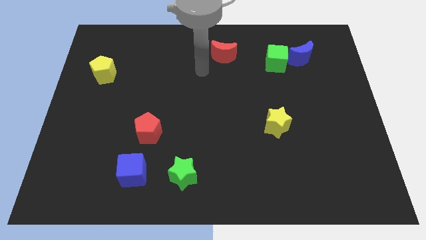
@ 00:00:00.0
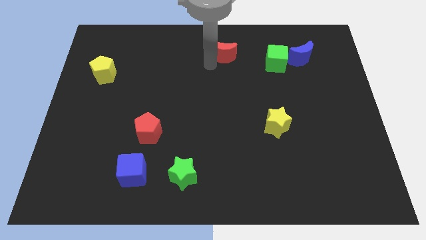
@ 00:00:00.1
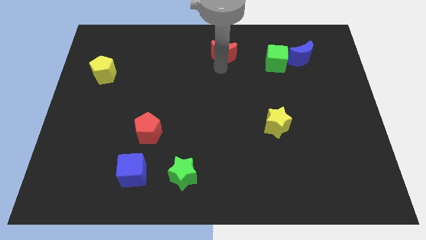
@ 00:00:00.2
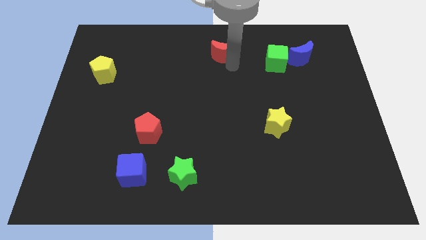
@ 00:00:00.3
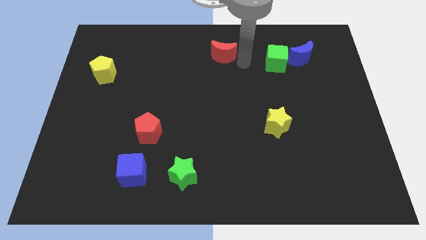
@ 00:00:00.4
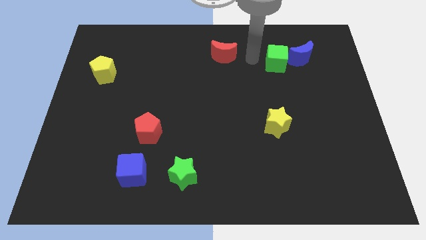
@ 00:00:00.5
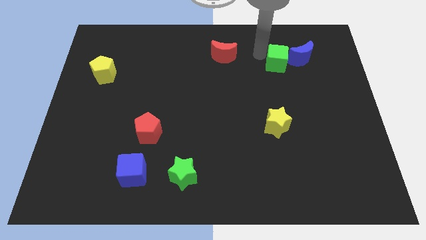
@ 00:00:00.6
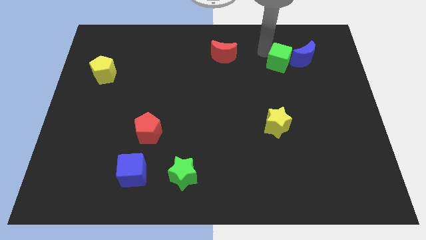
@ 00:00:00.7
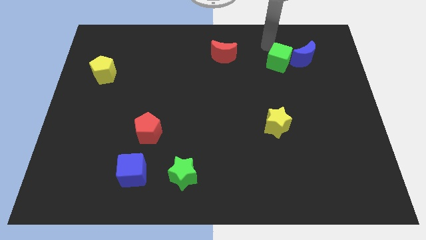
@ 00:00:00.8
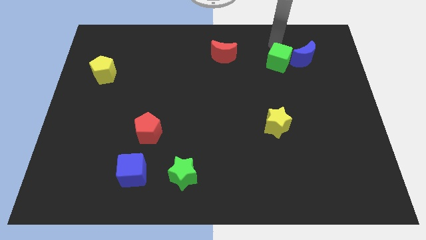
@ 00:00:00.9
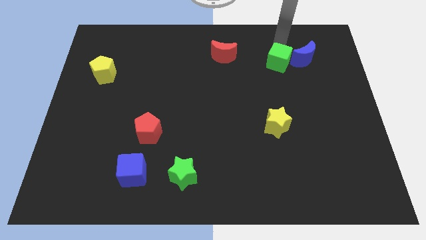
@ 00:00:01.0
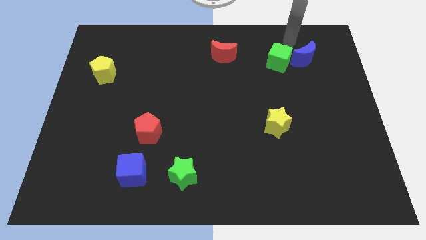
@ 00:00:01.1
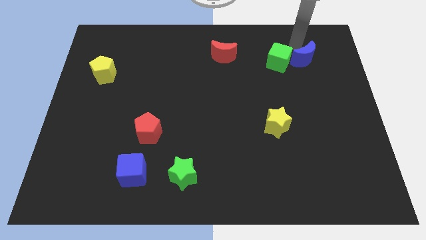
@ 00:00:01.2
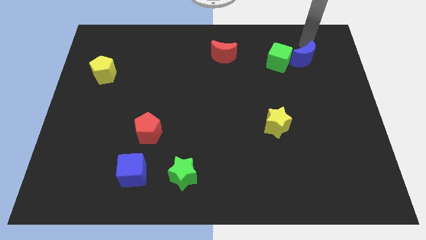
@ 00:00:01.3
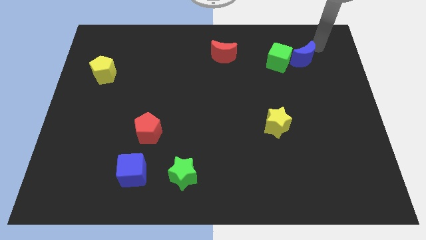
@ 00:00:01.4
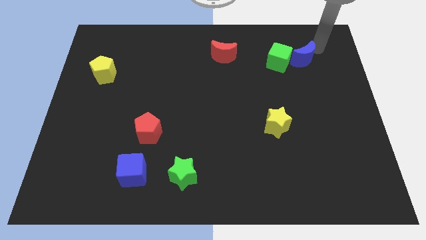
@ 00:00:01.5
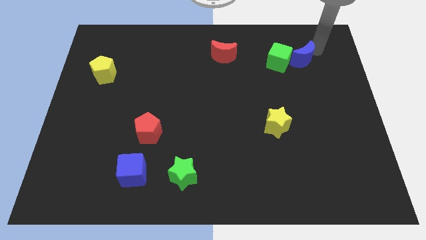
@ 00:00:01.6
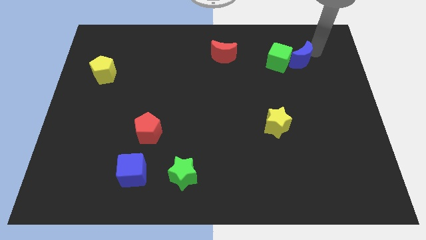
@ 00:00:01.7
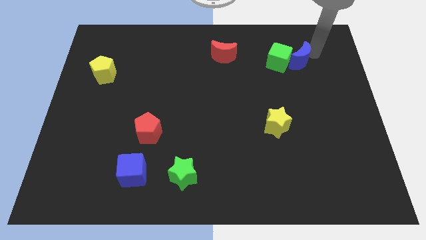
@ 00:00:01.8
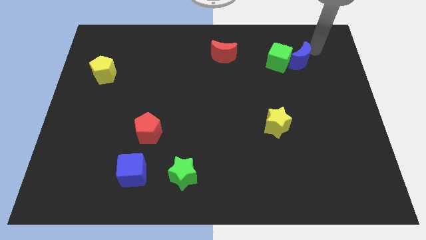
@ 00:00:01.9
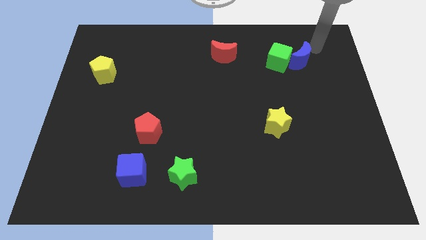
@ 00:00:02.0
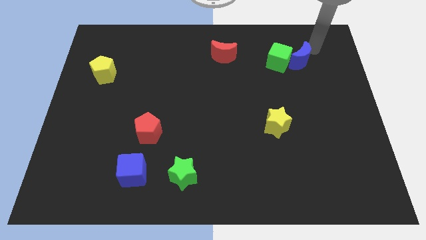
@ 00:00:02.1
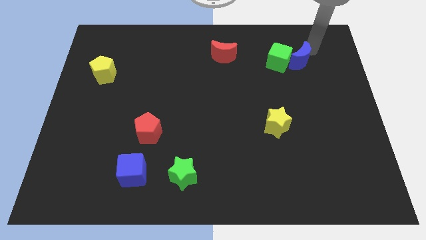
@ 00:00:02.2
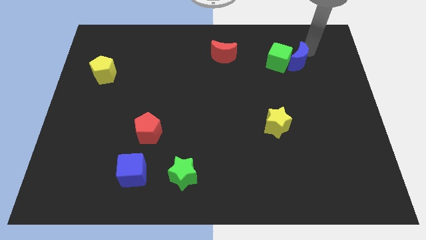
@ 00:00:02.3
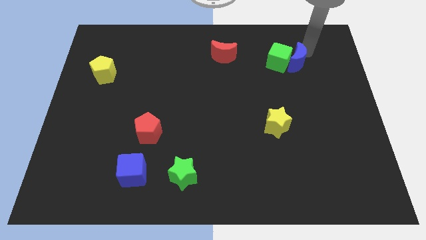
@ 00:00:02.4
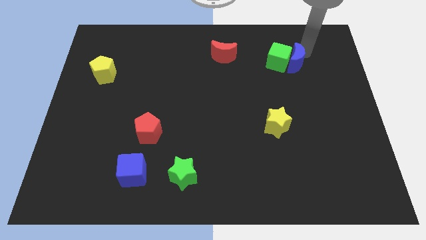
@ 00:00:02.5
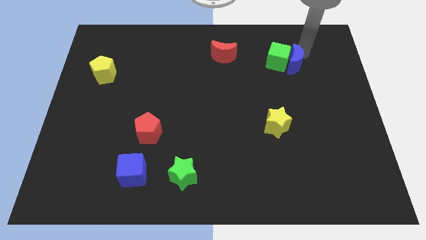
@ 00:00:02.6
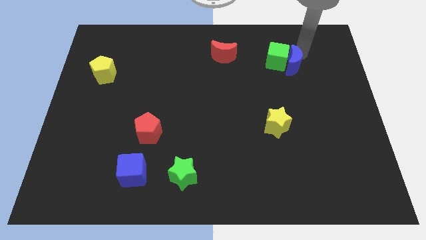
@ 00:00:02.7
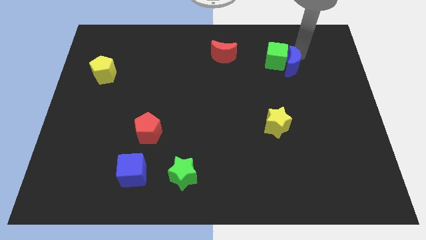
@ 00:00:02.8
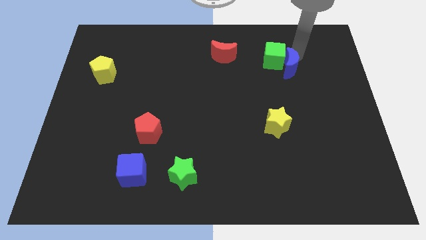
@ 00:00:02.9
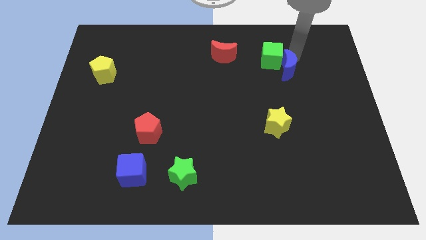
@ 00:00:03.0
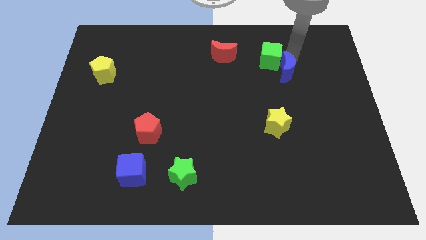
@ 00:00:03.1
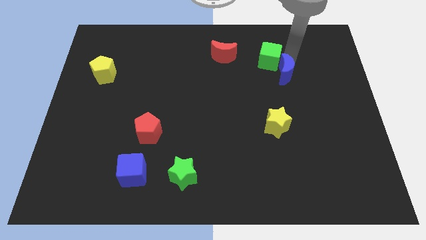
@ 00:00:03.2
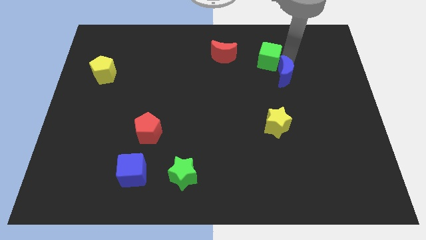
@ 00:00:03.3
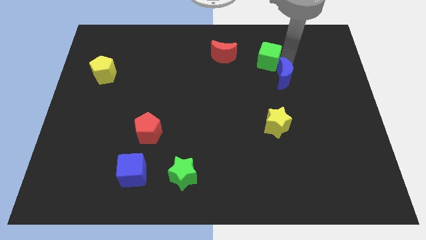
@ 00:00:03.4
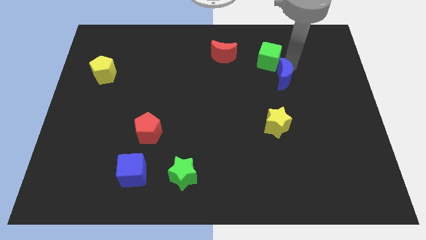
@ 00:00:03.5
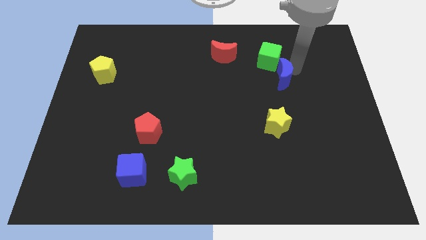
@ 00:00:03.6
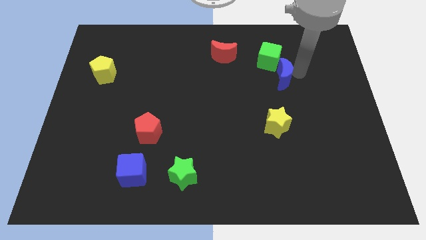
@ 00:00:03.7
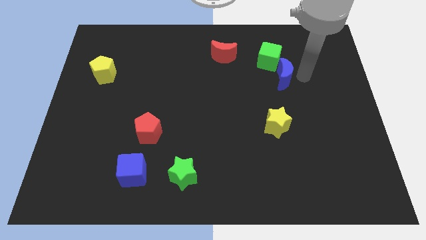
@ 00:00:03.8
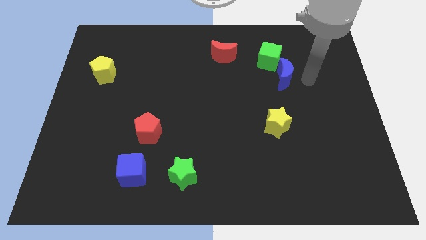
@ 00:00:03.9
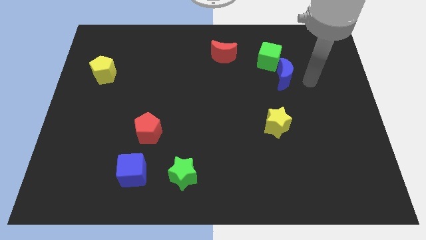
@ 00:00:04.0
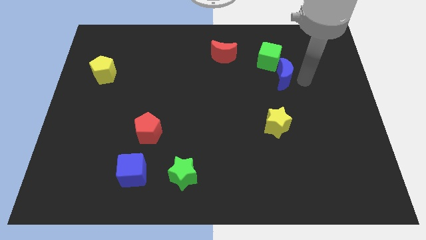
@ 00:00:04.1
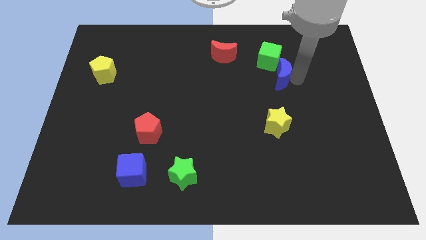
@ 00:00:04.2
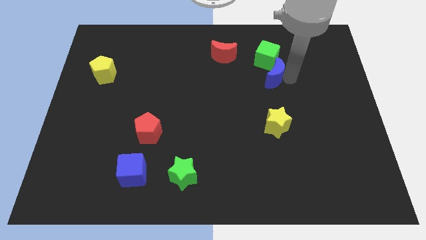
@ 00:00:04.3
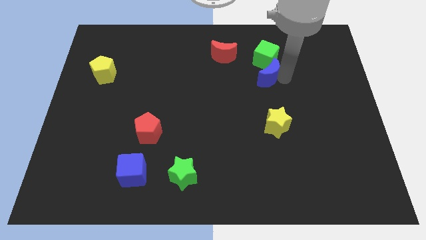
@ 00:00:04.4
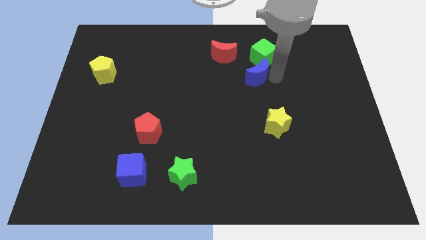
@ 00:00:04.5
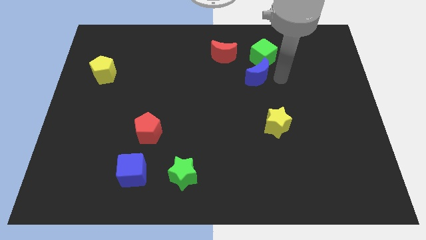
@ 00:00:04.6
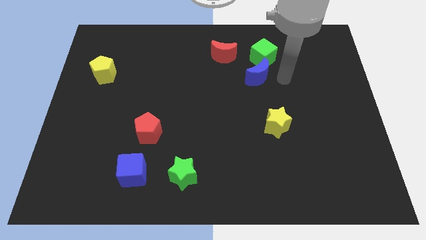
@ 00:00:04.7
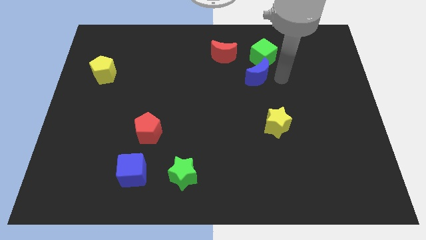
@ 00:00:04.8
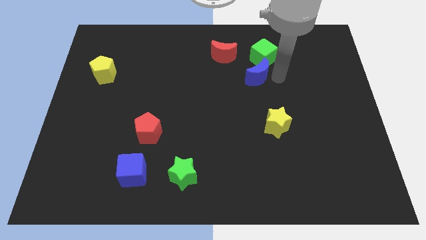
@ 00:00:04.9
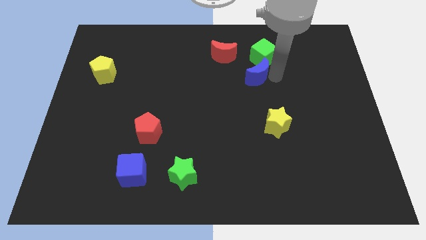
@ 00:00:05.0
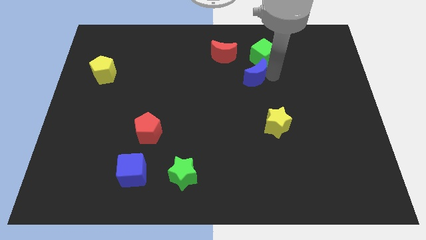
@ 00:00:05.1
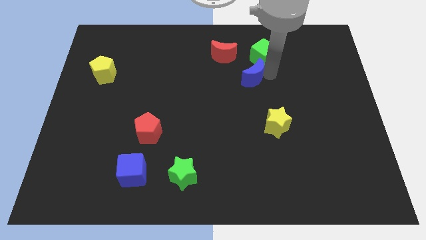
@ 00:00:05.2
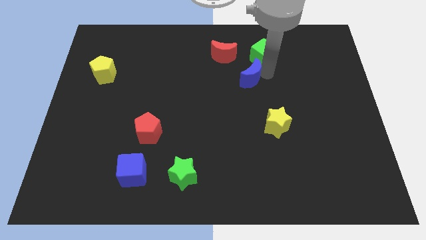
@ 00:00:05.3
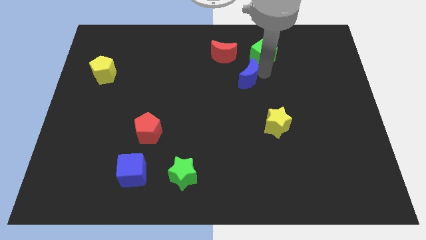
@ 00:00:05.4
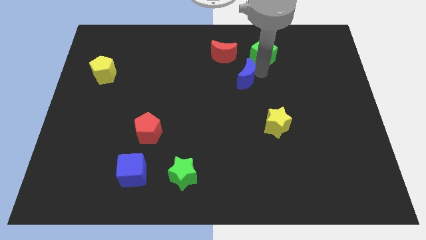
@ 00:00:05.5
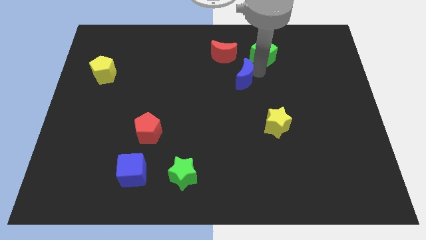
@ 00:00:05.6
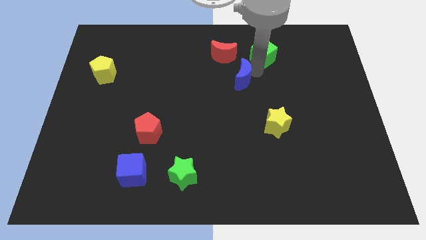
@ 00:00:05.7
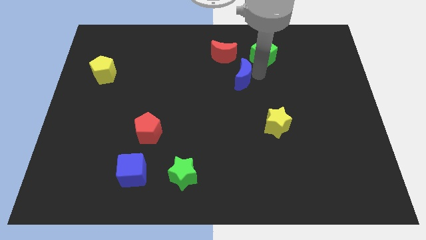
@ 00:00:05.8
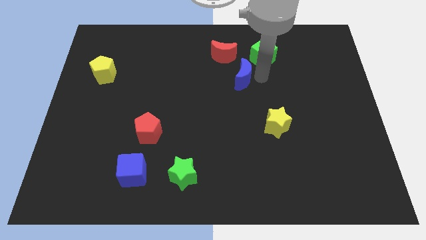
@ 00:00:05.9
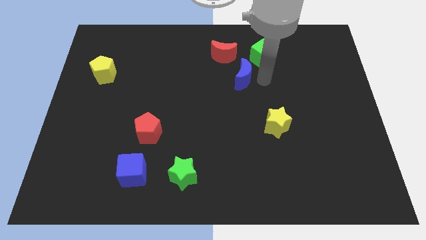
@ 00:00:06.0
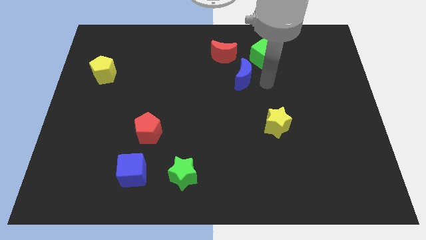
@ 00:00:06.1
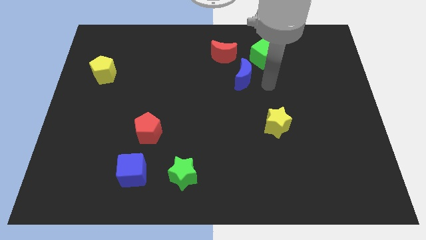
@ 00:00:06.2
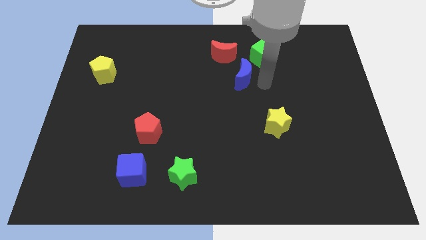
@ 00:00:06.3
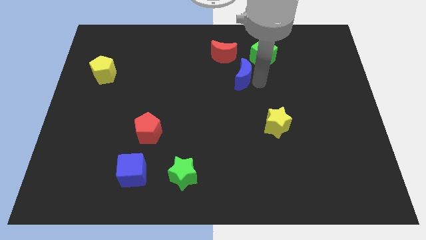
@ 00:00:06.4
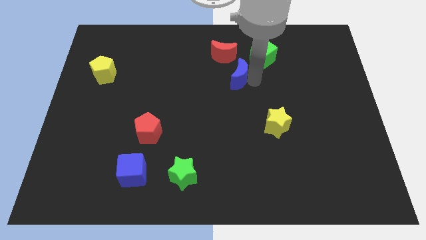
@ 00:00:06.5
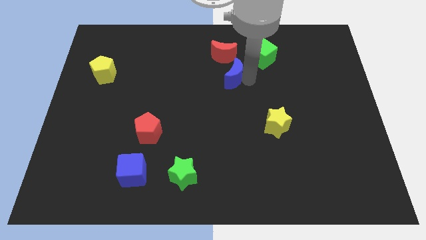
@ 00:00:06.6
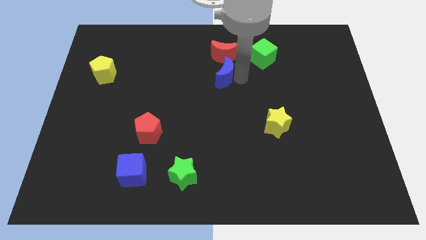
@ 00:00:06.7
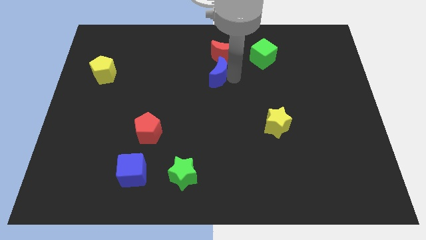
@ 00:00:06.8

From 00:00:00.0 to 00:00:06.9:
slide the blue moon to the left

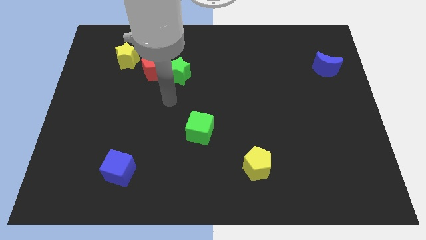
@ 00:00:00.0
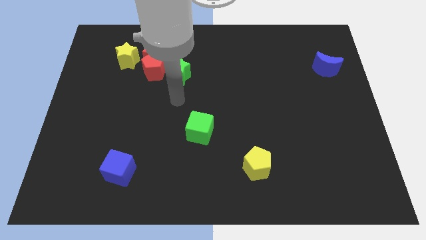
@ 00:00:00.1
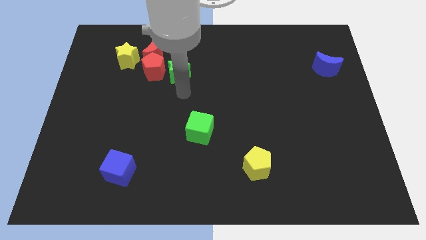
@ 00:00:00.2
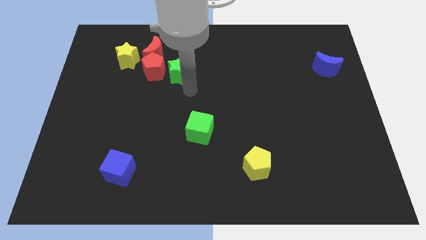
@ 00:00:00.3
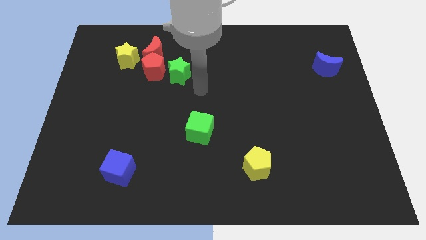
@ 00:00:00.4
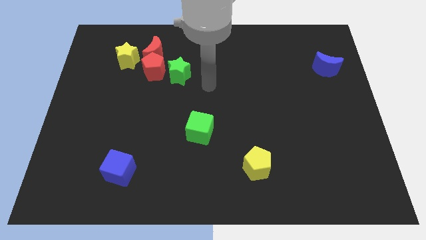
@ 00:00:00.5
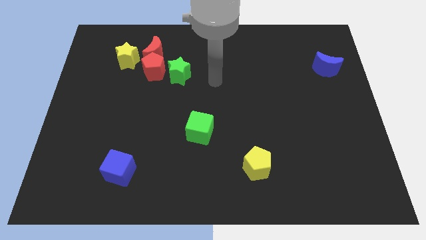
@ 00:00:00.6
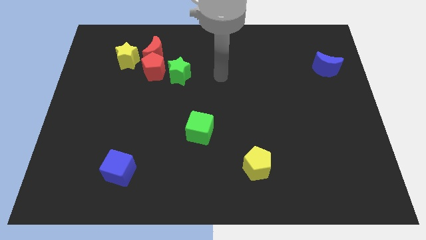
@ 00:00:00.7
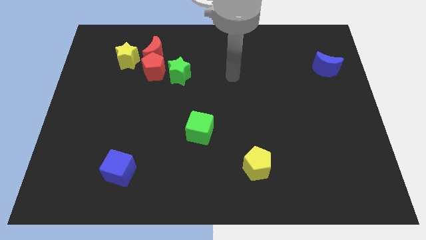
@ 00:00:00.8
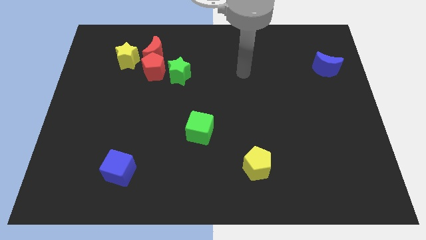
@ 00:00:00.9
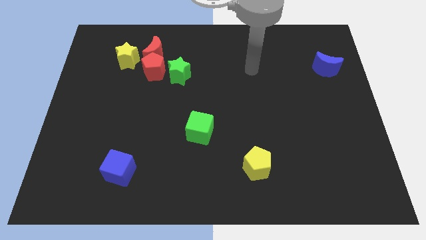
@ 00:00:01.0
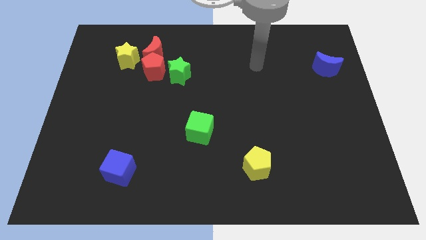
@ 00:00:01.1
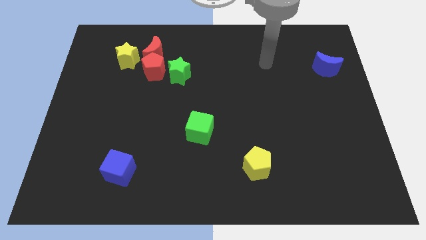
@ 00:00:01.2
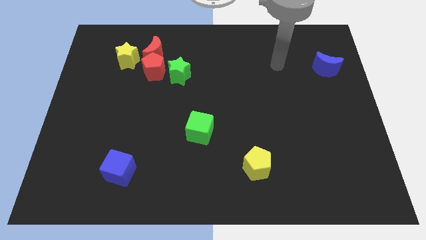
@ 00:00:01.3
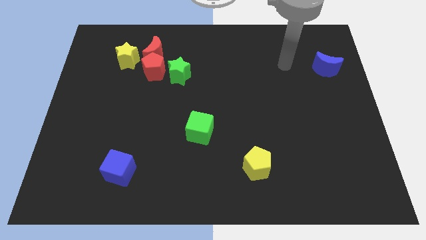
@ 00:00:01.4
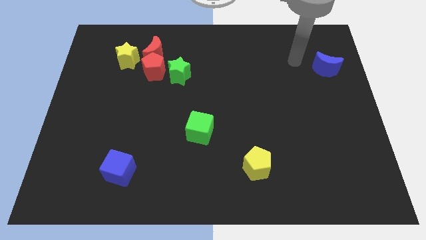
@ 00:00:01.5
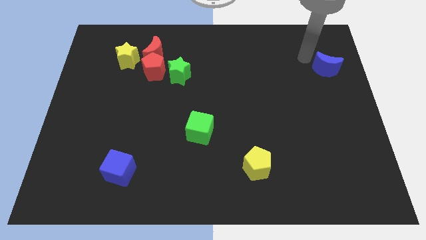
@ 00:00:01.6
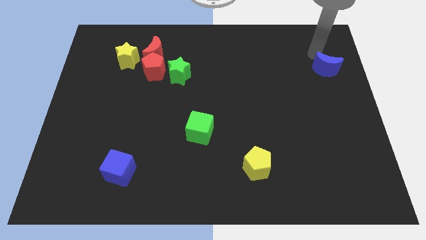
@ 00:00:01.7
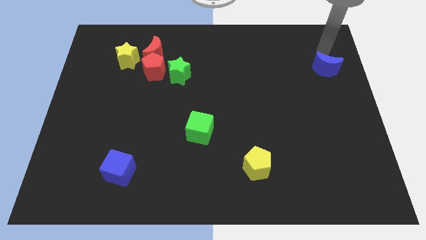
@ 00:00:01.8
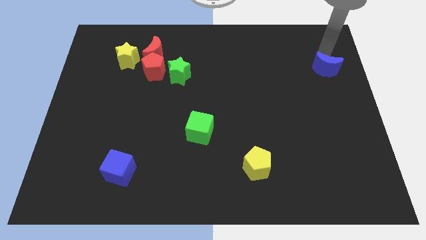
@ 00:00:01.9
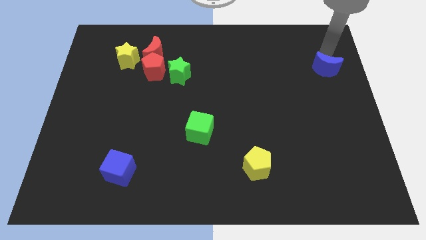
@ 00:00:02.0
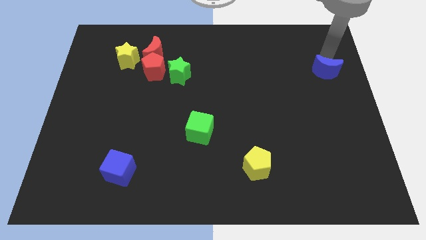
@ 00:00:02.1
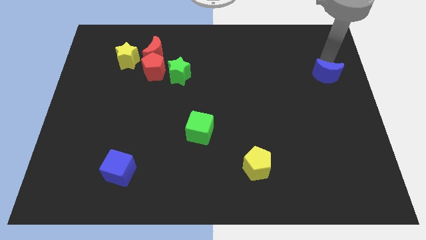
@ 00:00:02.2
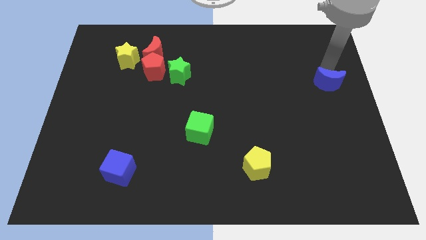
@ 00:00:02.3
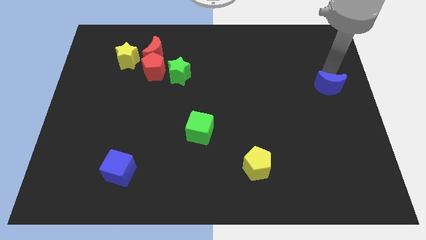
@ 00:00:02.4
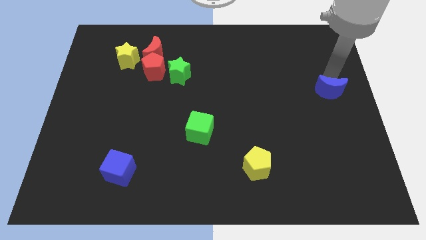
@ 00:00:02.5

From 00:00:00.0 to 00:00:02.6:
slide the blue moon downwards slightly
